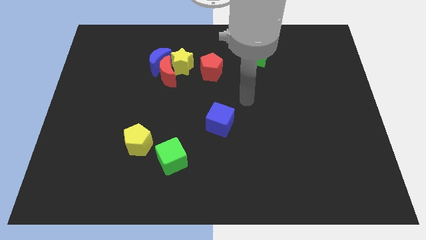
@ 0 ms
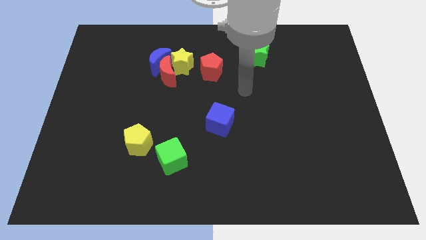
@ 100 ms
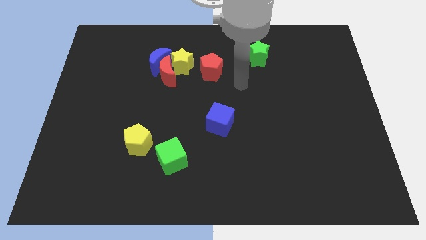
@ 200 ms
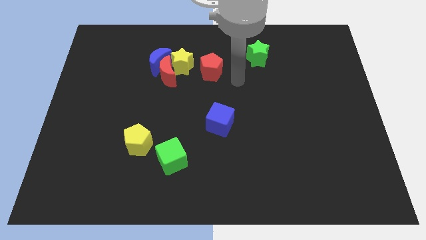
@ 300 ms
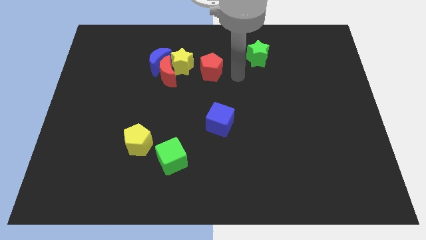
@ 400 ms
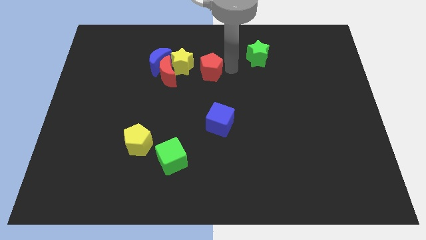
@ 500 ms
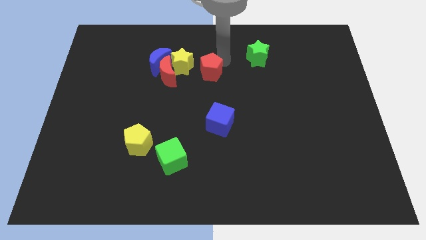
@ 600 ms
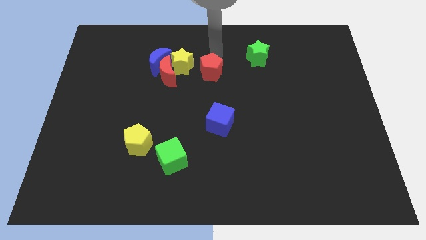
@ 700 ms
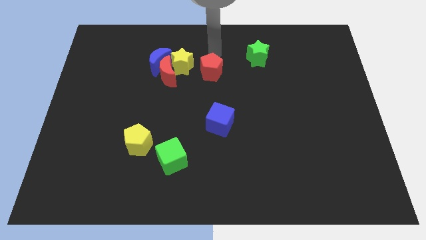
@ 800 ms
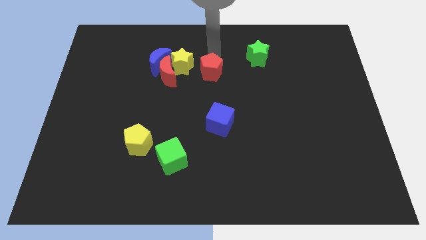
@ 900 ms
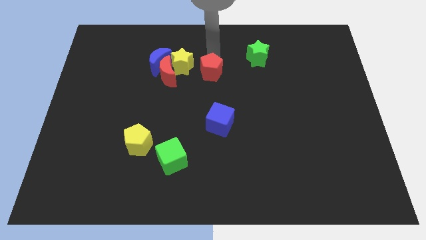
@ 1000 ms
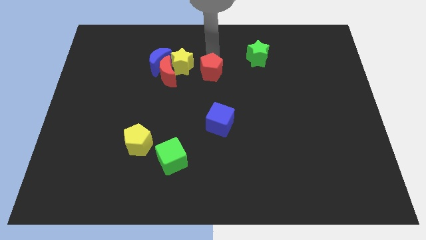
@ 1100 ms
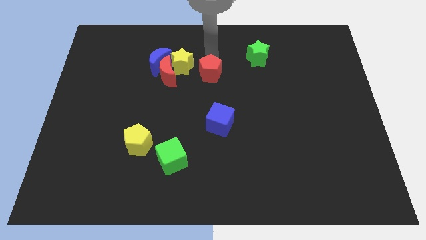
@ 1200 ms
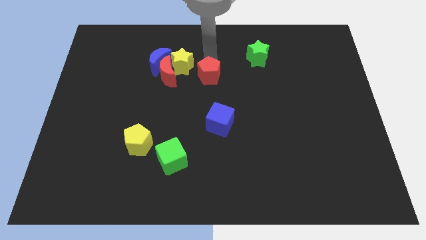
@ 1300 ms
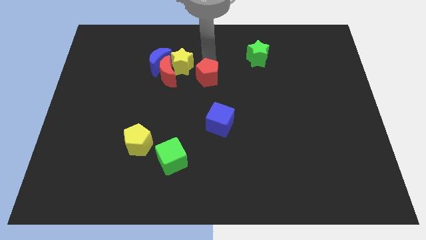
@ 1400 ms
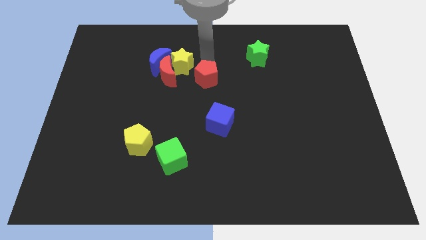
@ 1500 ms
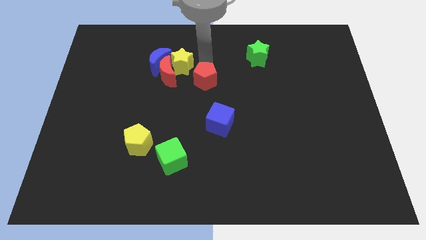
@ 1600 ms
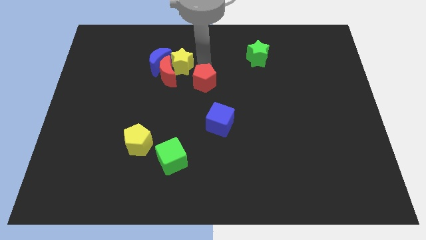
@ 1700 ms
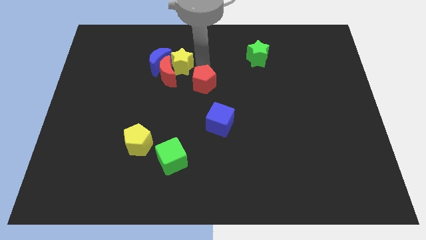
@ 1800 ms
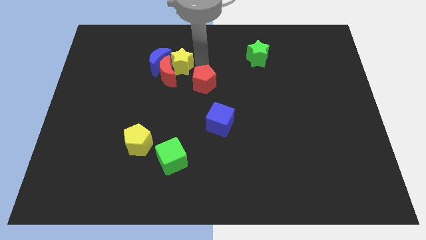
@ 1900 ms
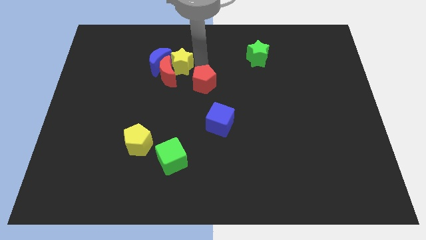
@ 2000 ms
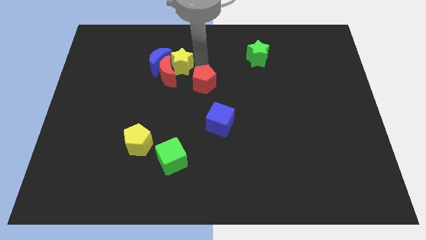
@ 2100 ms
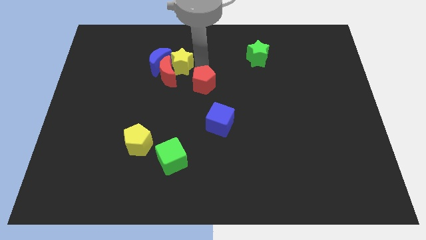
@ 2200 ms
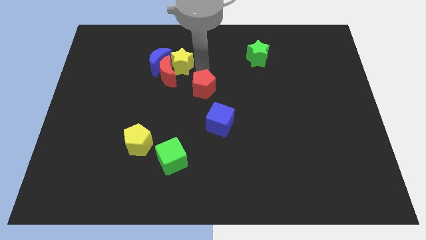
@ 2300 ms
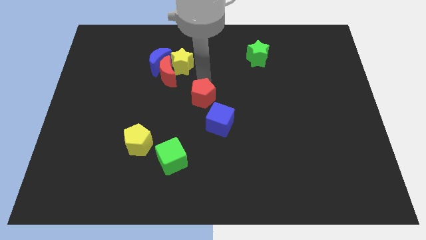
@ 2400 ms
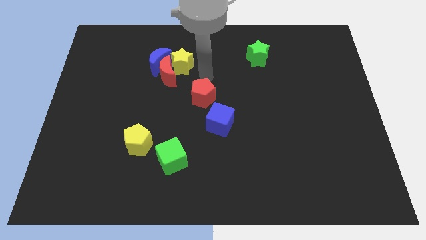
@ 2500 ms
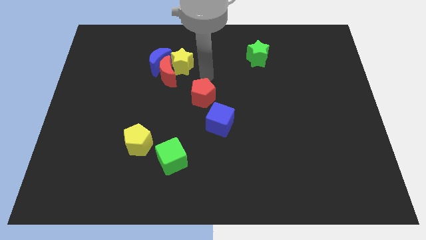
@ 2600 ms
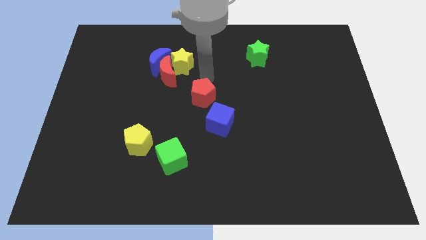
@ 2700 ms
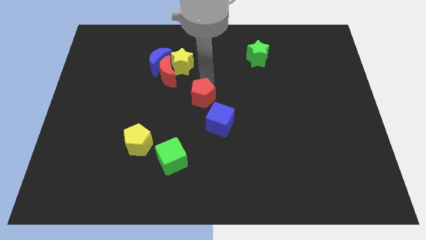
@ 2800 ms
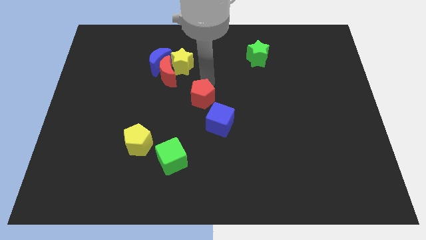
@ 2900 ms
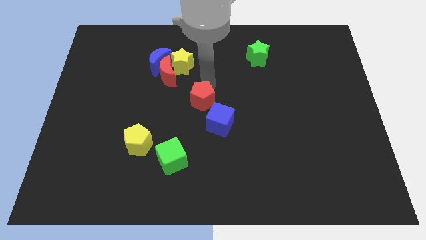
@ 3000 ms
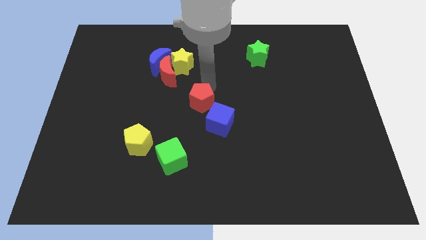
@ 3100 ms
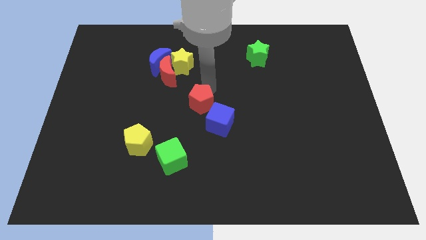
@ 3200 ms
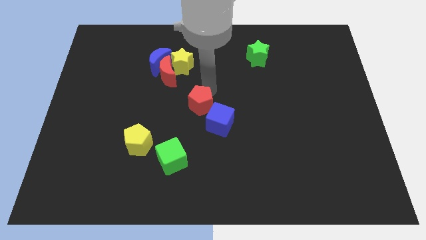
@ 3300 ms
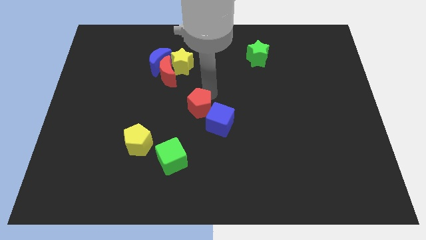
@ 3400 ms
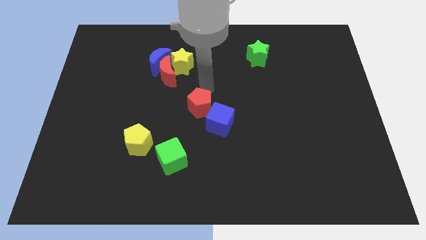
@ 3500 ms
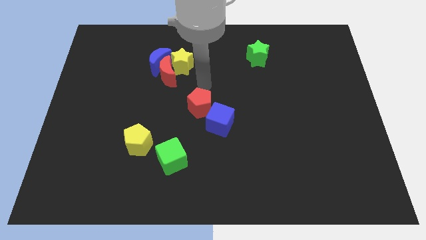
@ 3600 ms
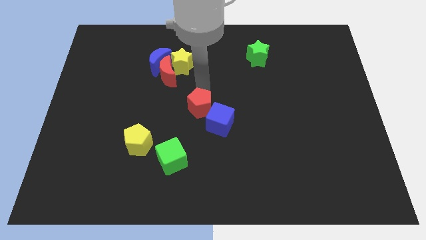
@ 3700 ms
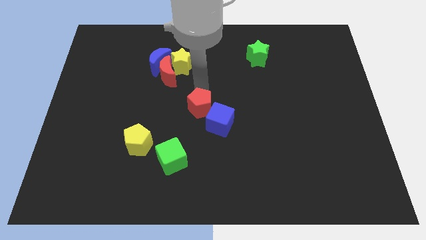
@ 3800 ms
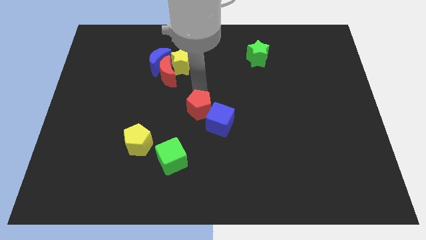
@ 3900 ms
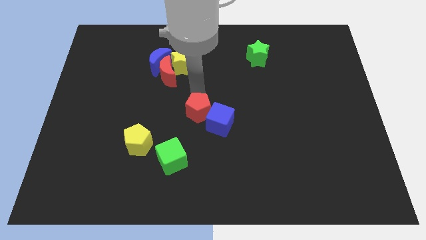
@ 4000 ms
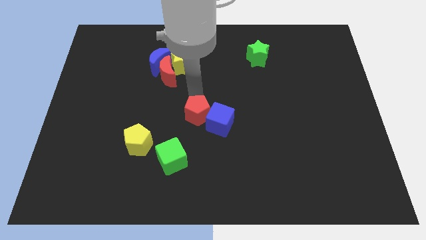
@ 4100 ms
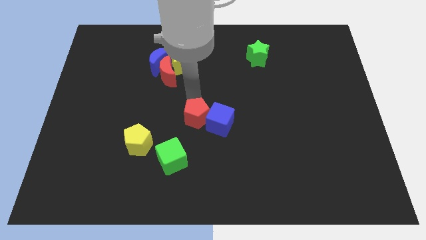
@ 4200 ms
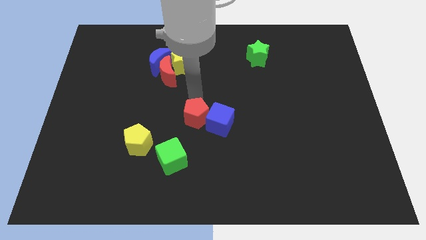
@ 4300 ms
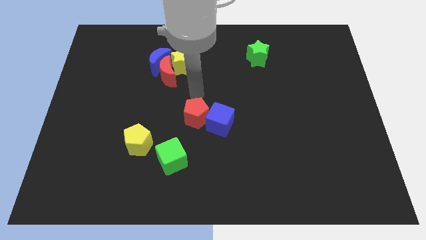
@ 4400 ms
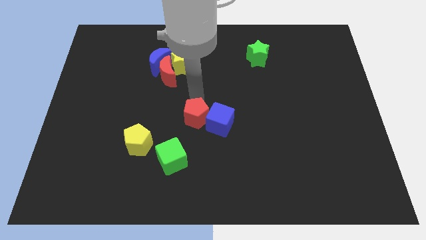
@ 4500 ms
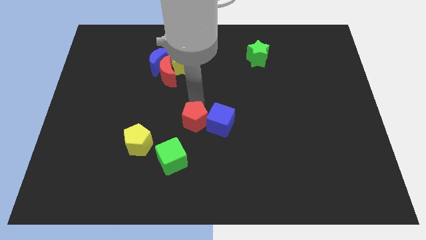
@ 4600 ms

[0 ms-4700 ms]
put the red pentagon to the bottom left side of the blue cube

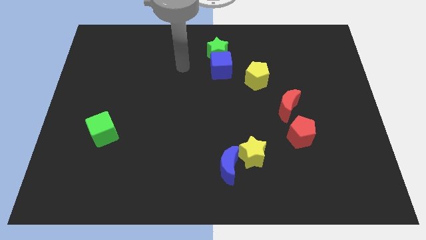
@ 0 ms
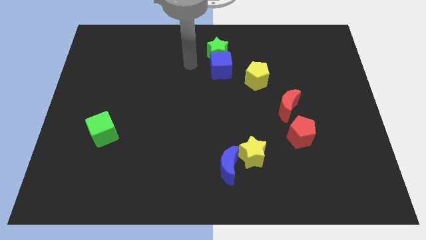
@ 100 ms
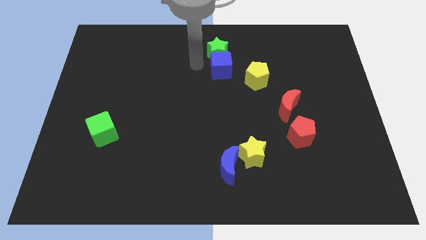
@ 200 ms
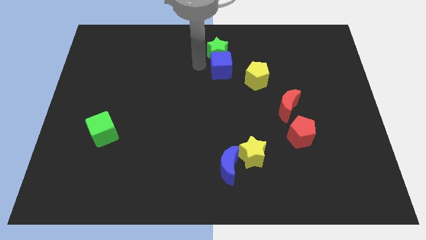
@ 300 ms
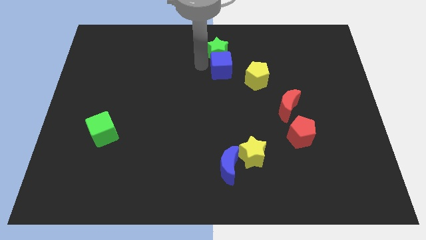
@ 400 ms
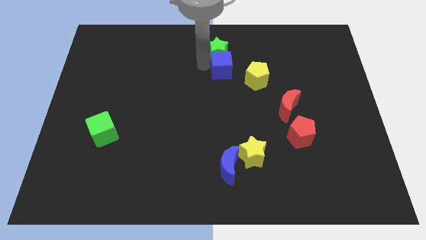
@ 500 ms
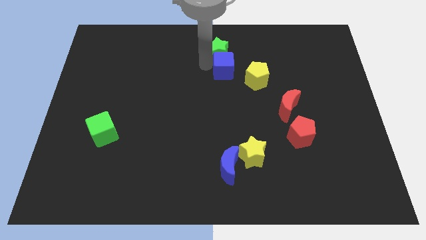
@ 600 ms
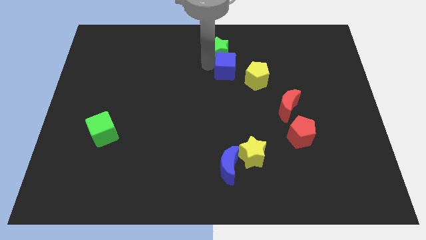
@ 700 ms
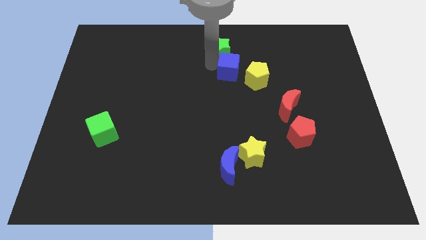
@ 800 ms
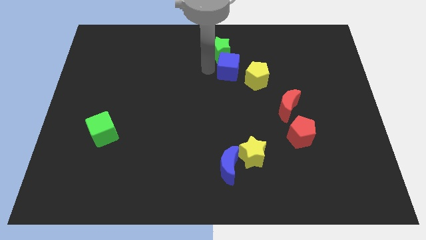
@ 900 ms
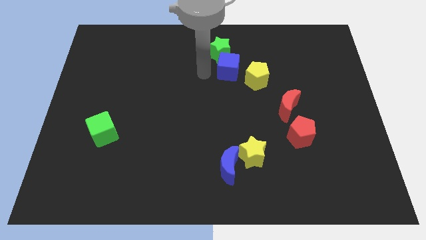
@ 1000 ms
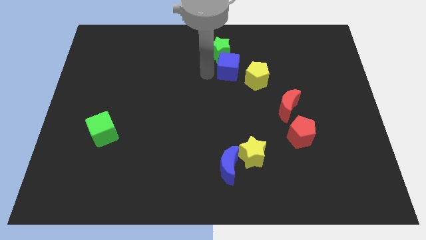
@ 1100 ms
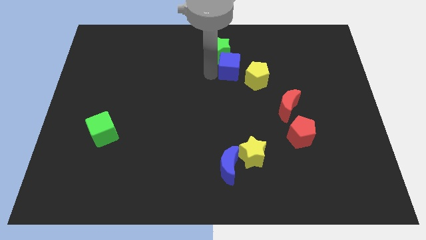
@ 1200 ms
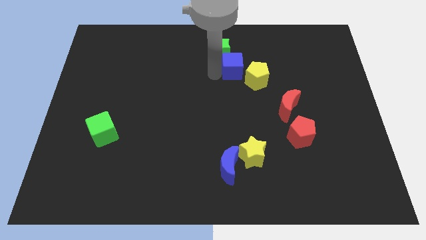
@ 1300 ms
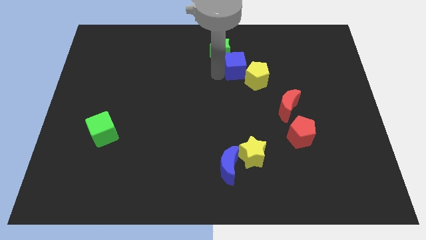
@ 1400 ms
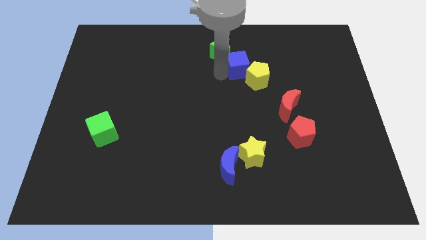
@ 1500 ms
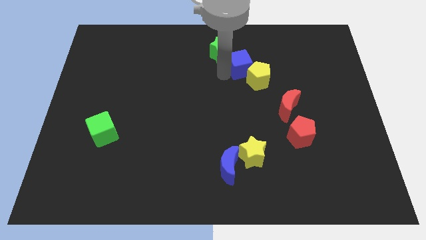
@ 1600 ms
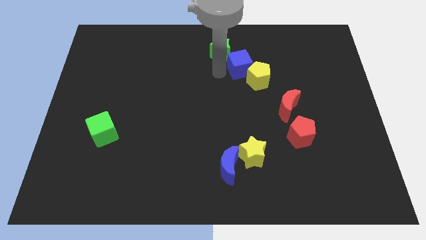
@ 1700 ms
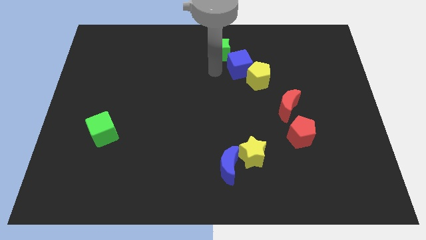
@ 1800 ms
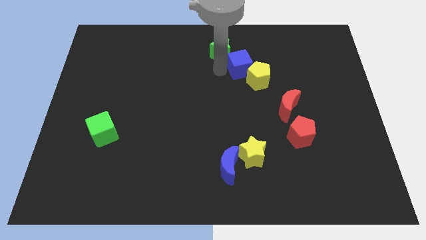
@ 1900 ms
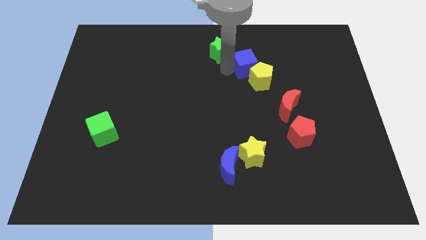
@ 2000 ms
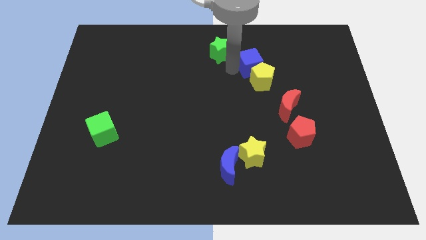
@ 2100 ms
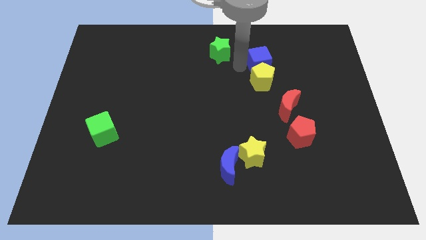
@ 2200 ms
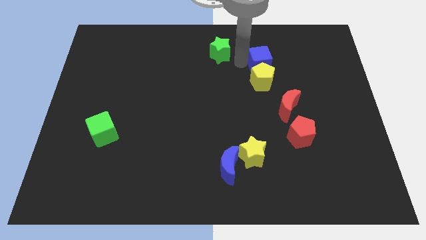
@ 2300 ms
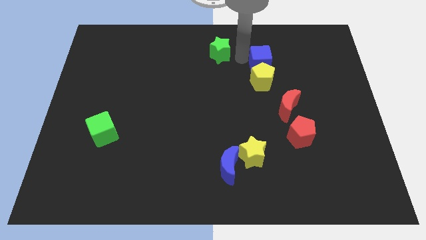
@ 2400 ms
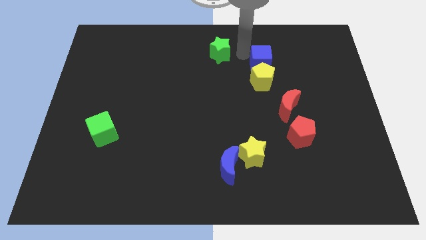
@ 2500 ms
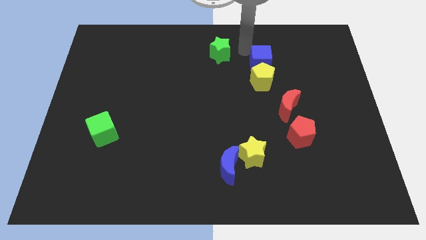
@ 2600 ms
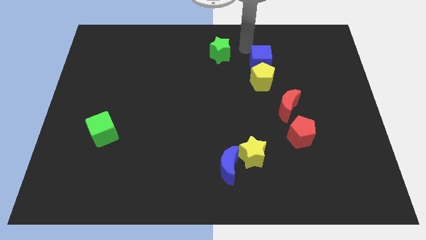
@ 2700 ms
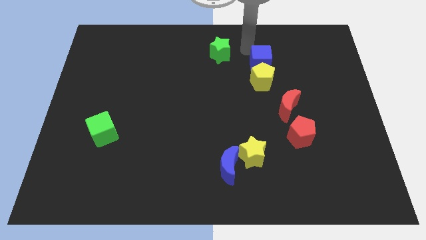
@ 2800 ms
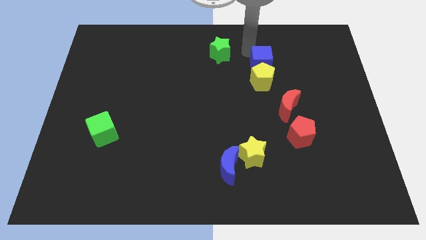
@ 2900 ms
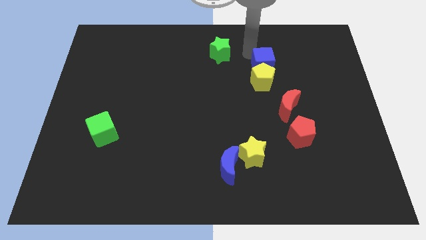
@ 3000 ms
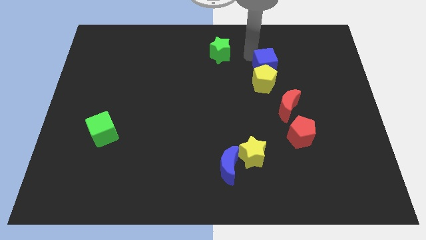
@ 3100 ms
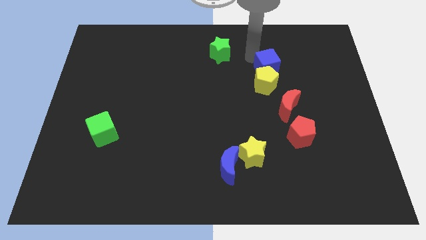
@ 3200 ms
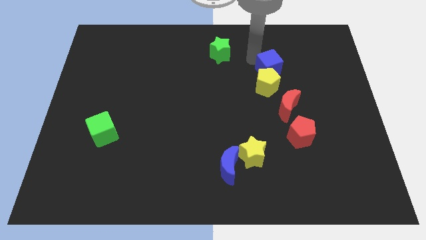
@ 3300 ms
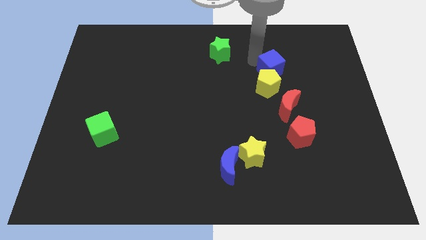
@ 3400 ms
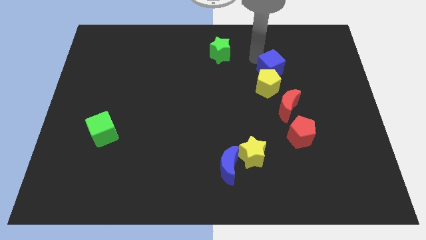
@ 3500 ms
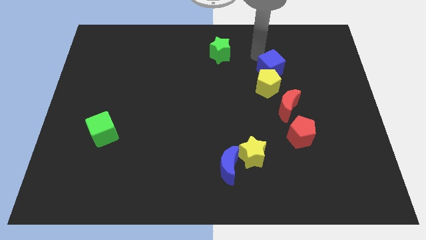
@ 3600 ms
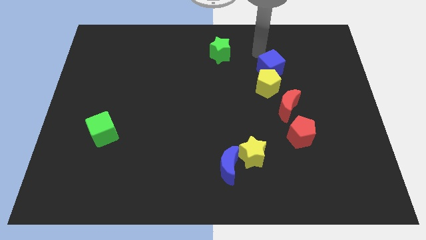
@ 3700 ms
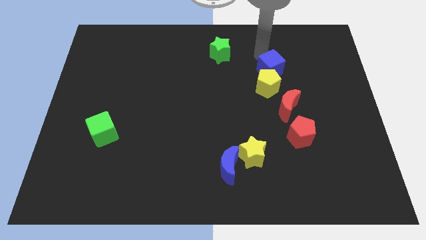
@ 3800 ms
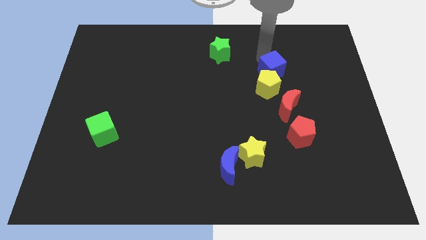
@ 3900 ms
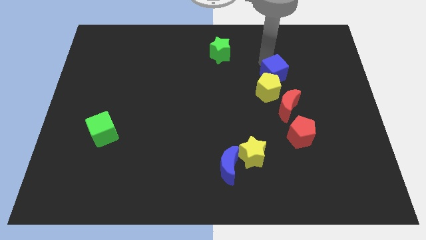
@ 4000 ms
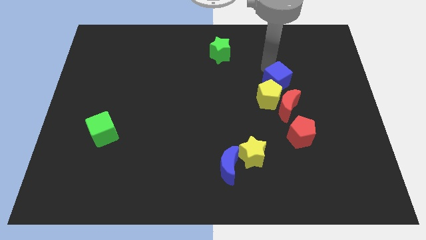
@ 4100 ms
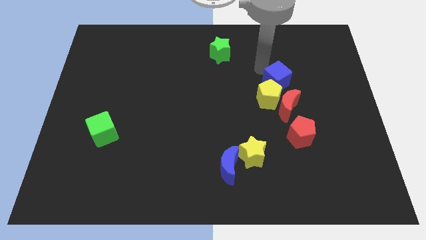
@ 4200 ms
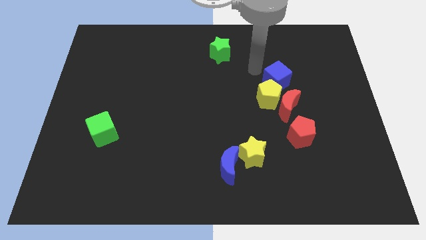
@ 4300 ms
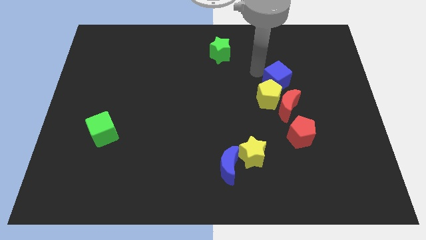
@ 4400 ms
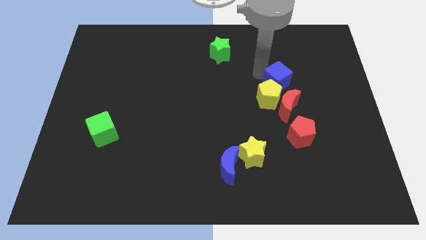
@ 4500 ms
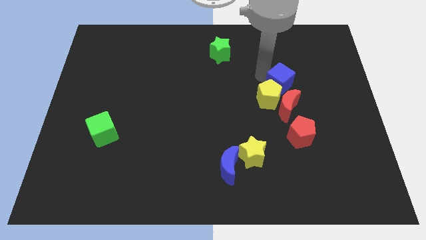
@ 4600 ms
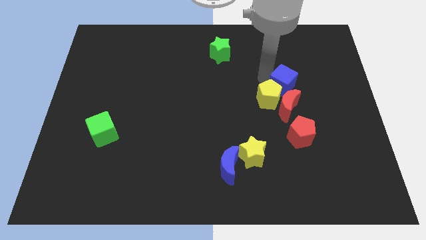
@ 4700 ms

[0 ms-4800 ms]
put the blue cube to the right side of the yellow pentagon
